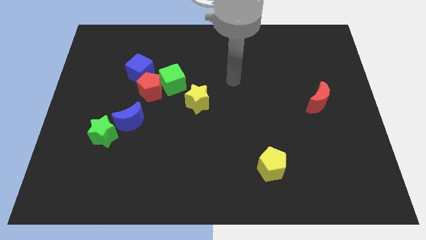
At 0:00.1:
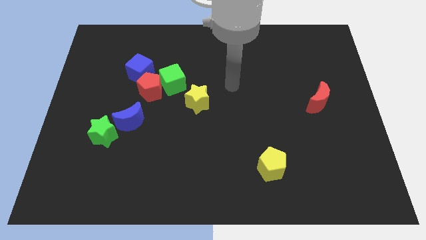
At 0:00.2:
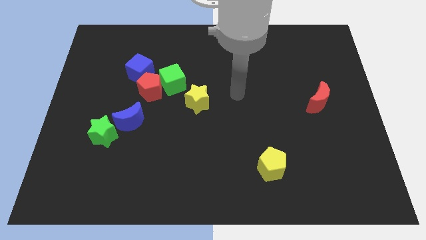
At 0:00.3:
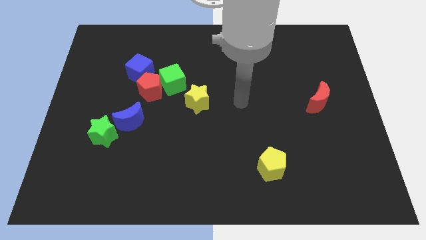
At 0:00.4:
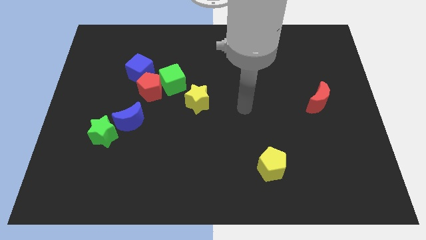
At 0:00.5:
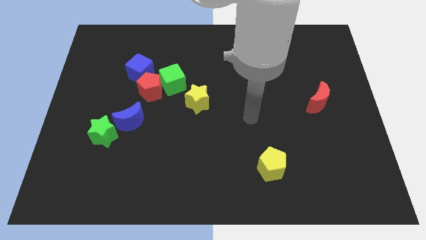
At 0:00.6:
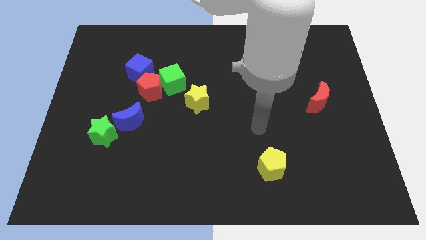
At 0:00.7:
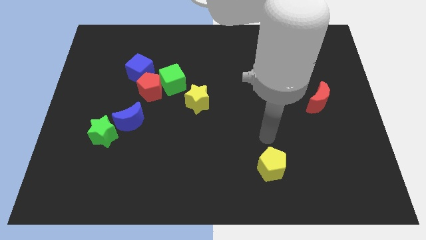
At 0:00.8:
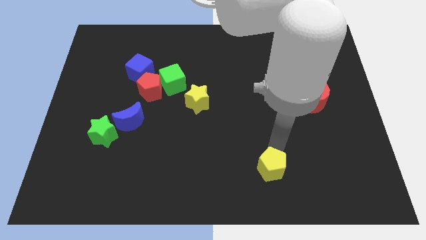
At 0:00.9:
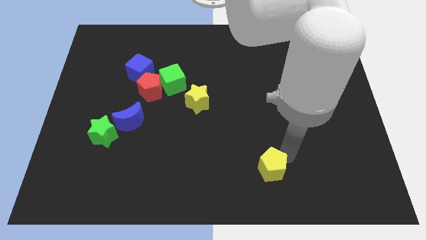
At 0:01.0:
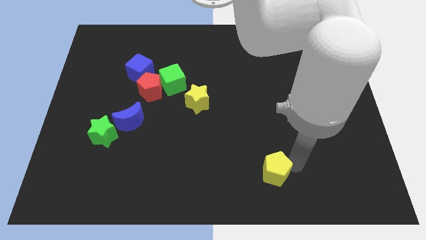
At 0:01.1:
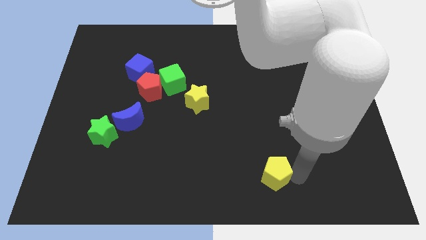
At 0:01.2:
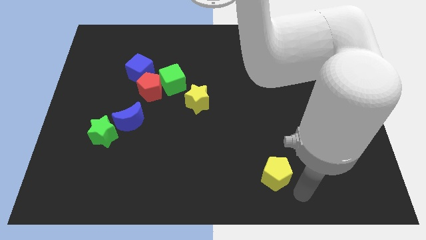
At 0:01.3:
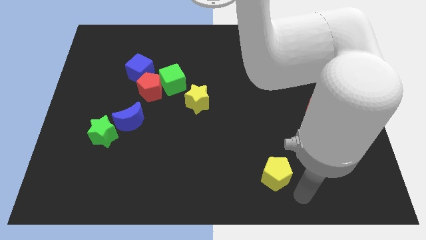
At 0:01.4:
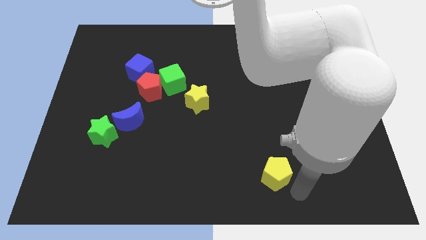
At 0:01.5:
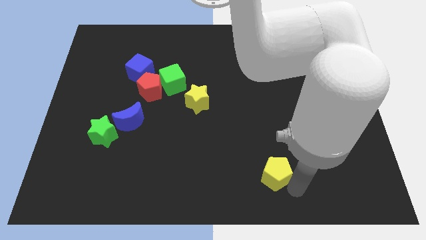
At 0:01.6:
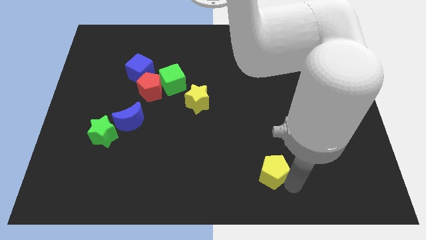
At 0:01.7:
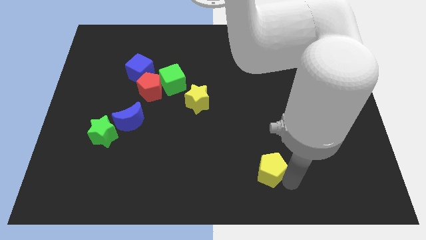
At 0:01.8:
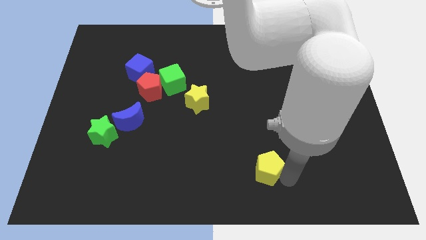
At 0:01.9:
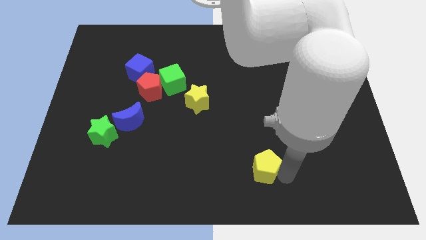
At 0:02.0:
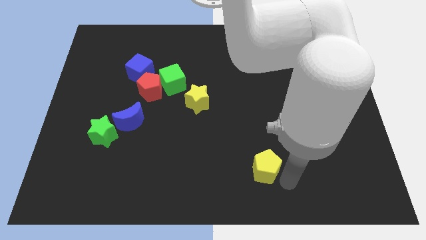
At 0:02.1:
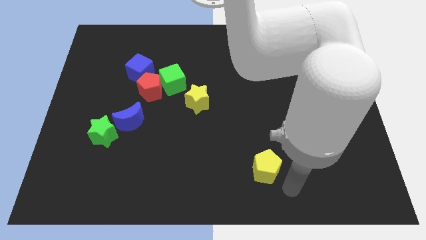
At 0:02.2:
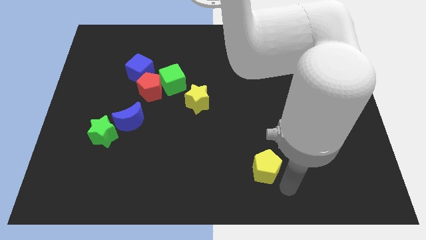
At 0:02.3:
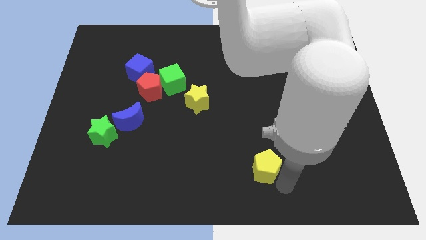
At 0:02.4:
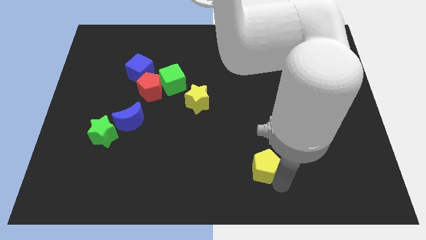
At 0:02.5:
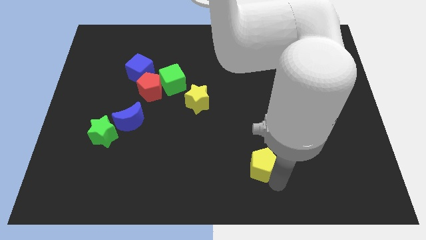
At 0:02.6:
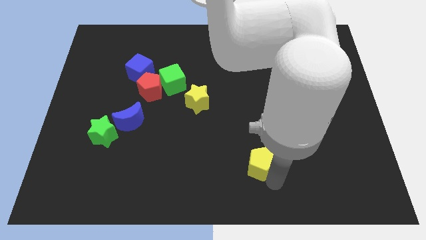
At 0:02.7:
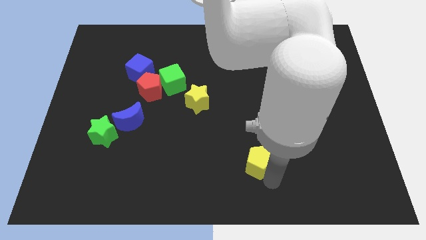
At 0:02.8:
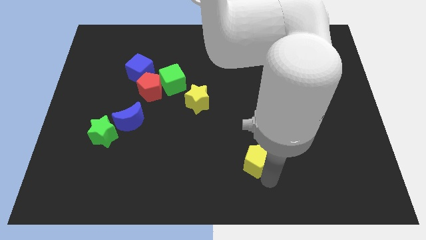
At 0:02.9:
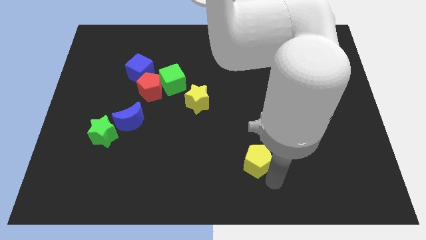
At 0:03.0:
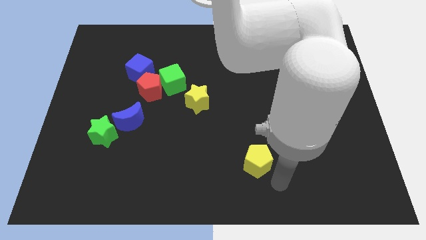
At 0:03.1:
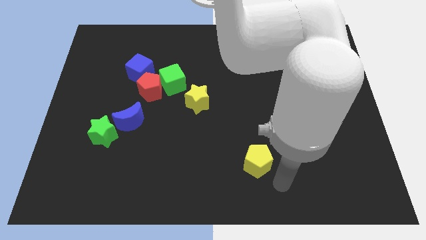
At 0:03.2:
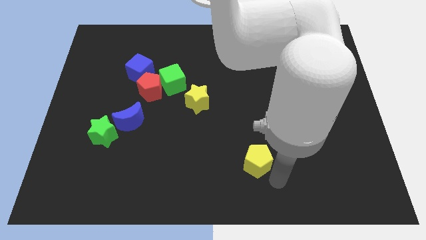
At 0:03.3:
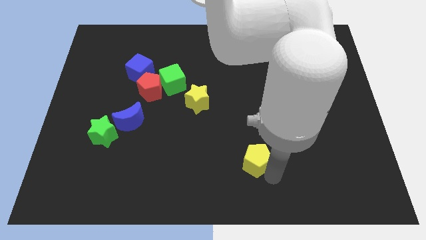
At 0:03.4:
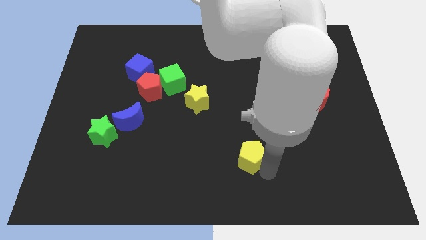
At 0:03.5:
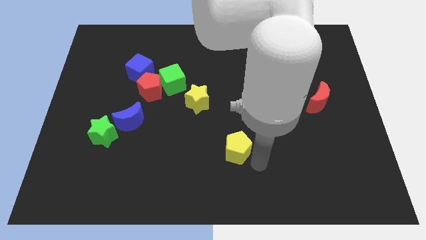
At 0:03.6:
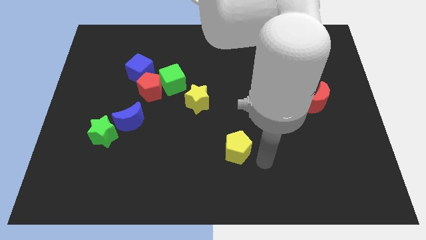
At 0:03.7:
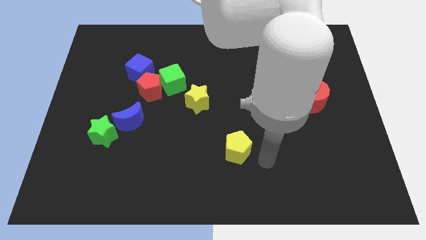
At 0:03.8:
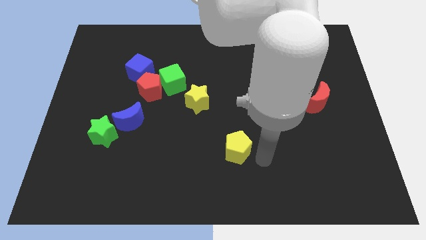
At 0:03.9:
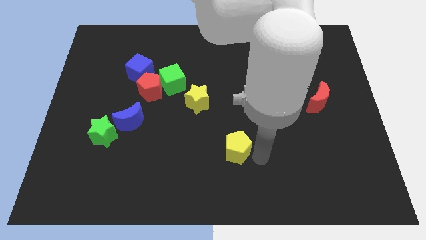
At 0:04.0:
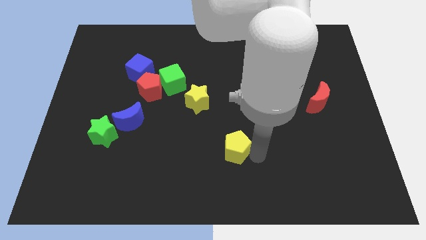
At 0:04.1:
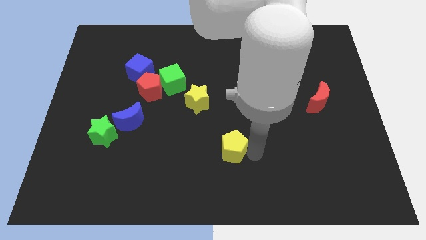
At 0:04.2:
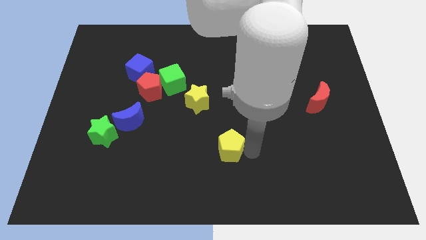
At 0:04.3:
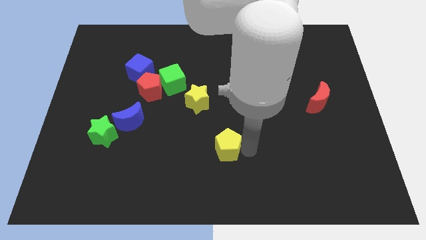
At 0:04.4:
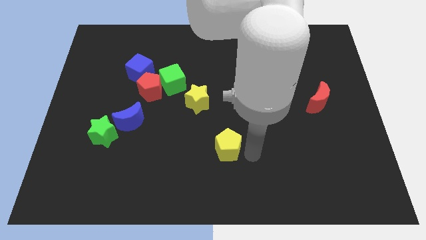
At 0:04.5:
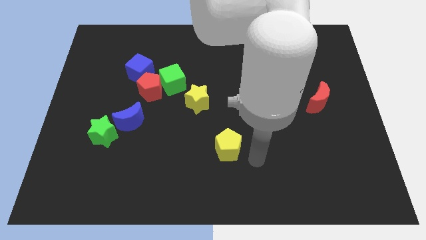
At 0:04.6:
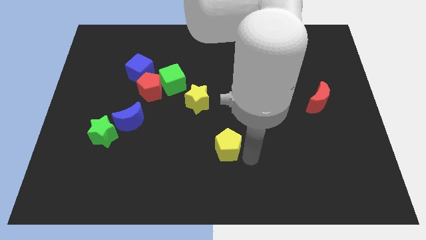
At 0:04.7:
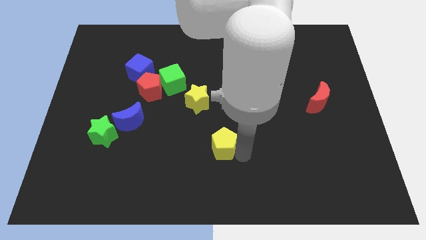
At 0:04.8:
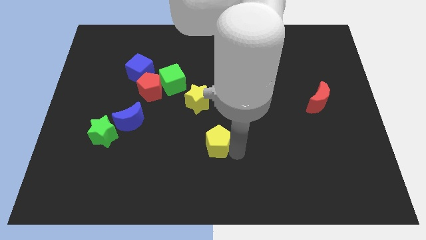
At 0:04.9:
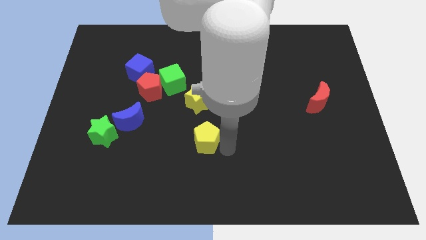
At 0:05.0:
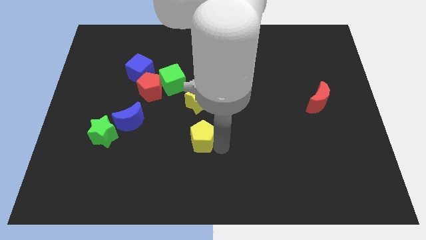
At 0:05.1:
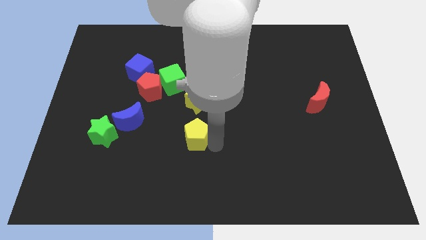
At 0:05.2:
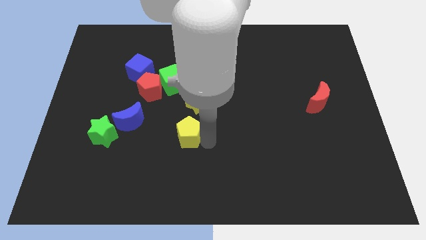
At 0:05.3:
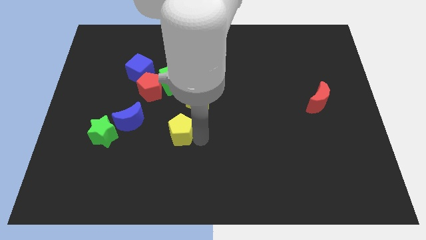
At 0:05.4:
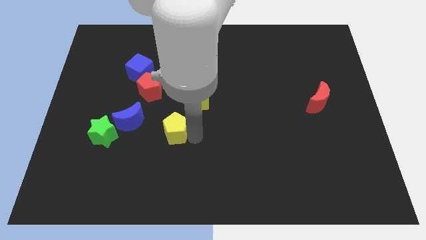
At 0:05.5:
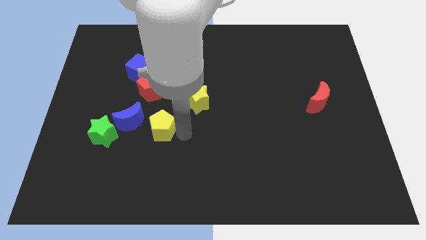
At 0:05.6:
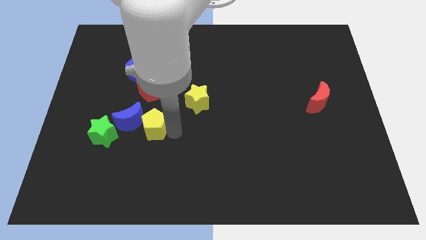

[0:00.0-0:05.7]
push the yellow pentagon close to the blue moon

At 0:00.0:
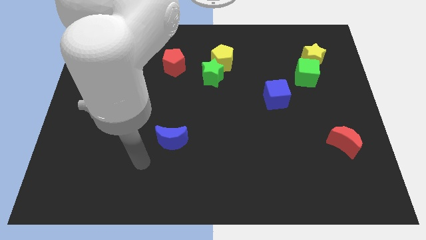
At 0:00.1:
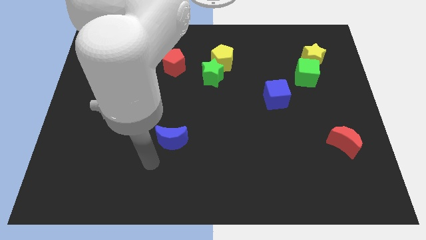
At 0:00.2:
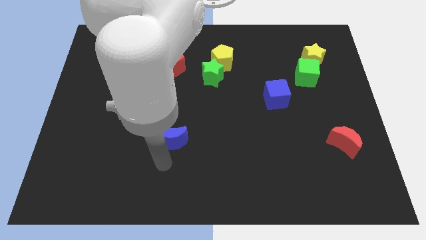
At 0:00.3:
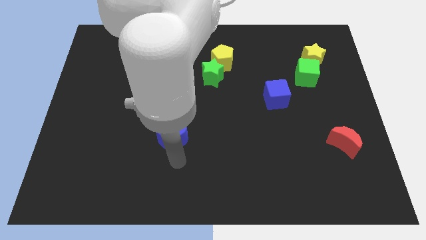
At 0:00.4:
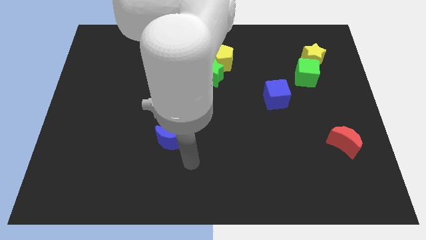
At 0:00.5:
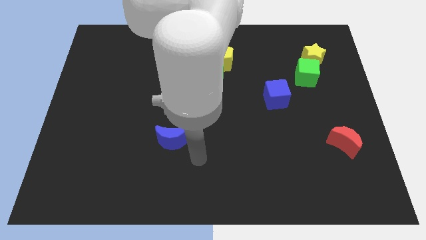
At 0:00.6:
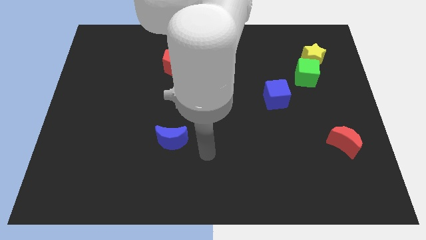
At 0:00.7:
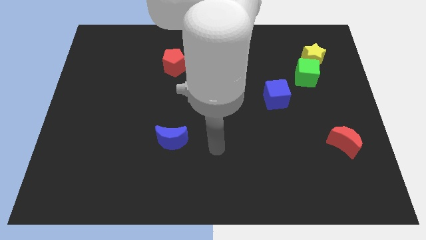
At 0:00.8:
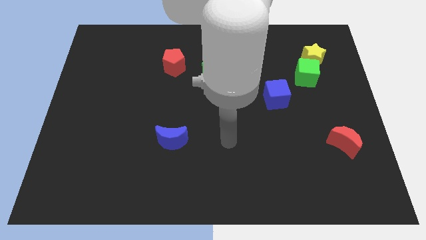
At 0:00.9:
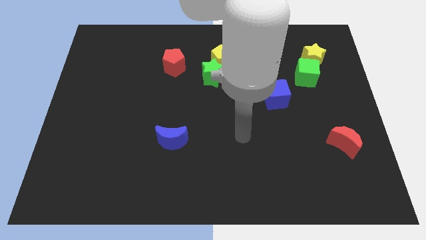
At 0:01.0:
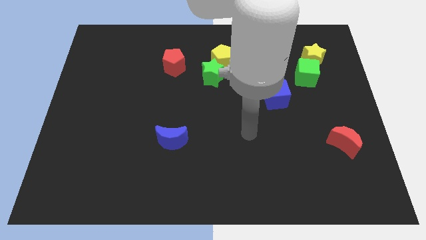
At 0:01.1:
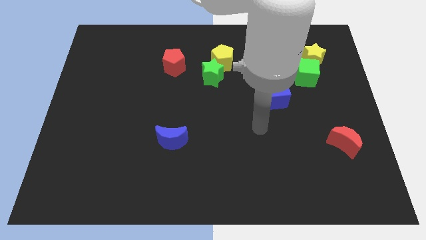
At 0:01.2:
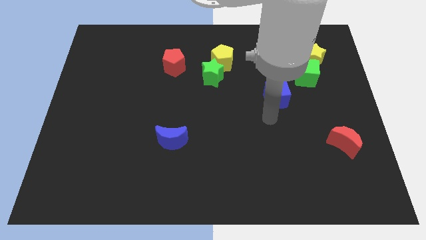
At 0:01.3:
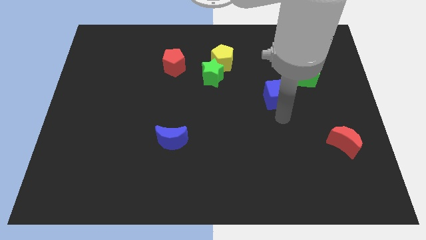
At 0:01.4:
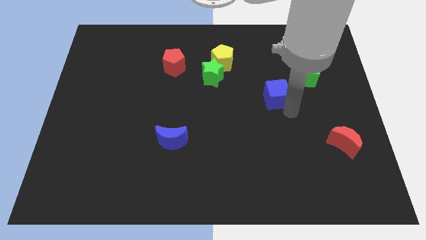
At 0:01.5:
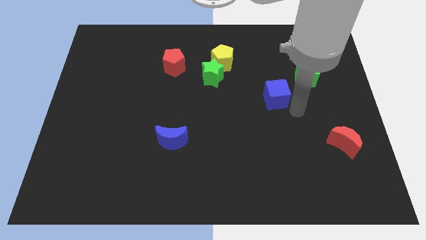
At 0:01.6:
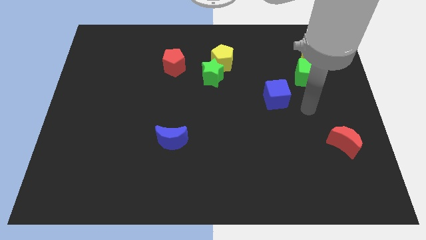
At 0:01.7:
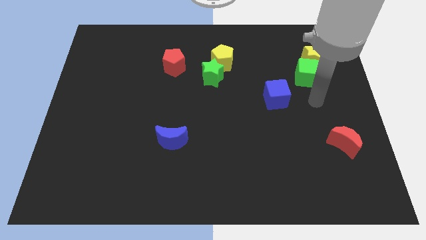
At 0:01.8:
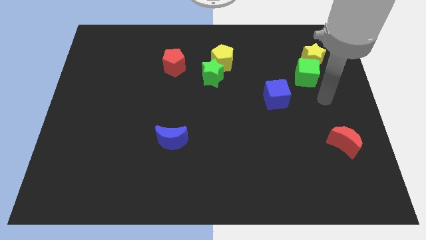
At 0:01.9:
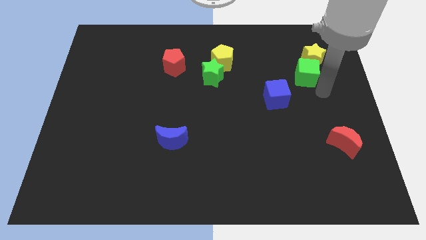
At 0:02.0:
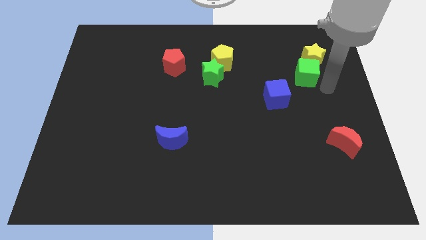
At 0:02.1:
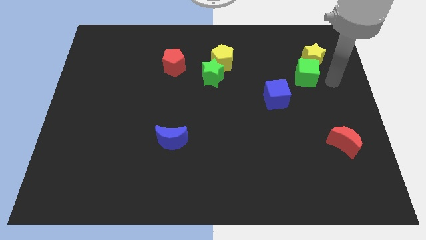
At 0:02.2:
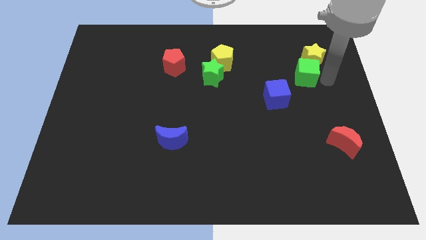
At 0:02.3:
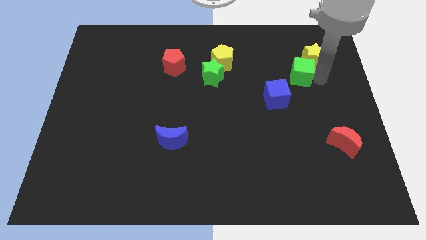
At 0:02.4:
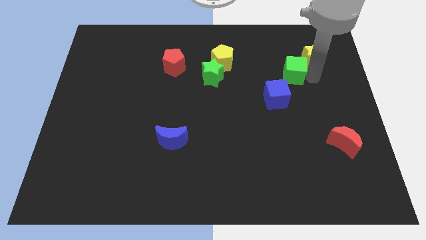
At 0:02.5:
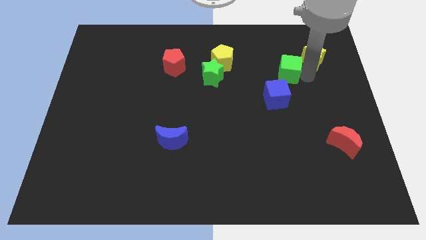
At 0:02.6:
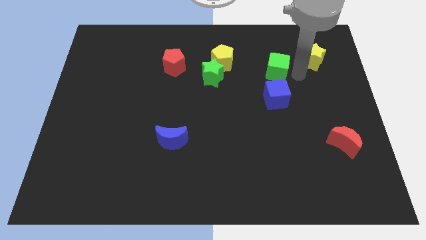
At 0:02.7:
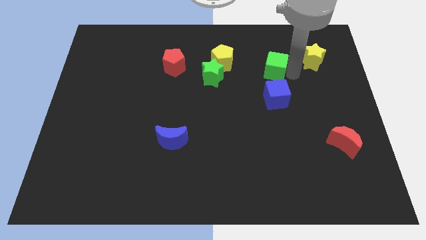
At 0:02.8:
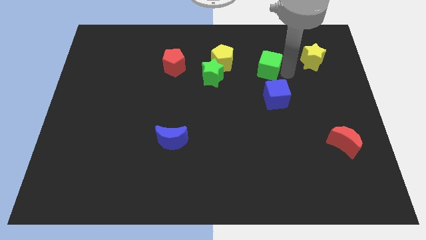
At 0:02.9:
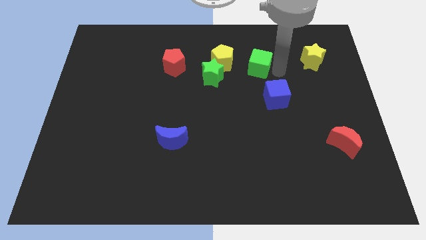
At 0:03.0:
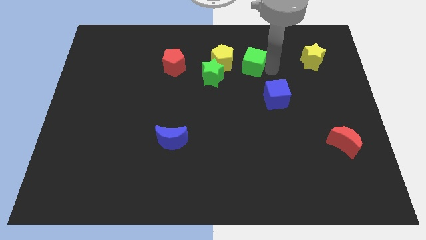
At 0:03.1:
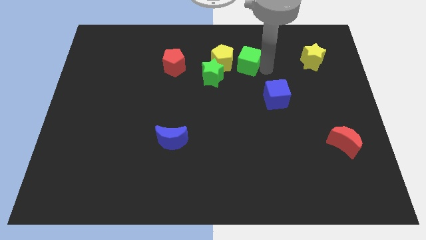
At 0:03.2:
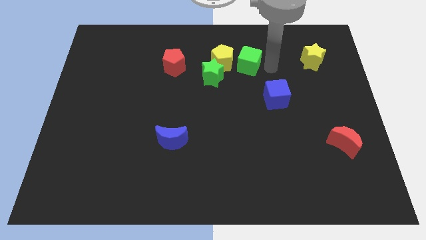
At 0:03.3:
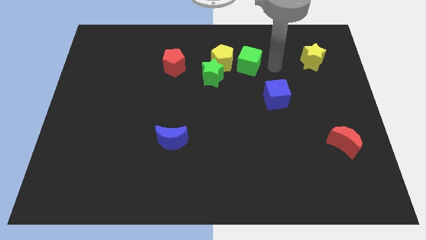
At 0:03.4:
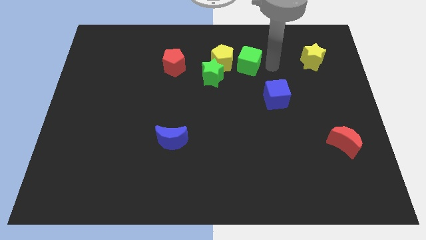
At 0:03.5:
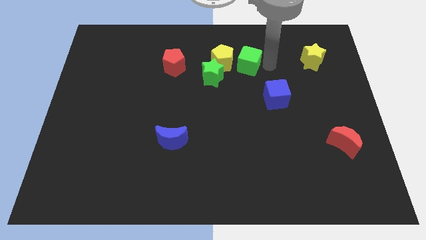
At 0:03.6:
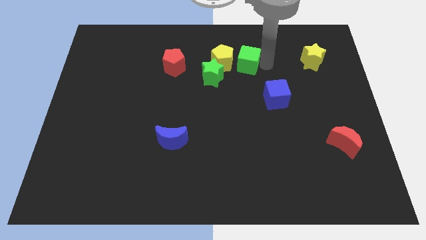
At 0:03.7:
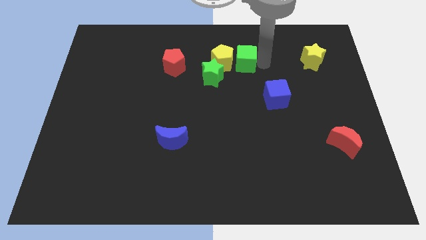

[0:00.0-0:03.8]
push the green cube towards the yellow pentagon
